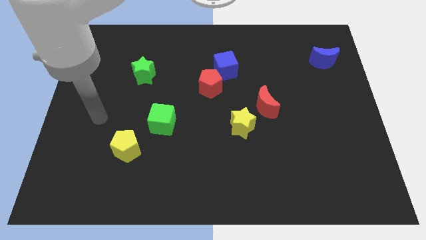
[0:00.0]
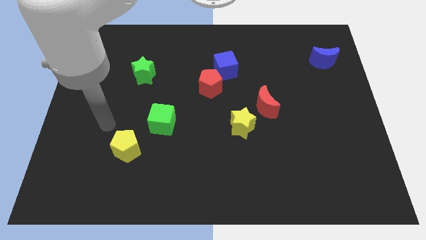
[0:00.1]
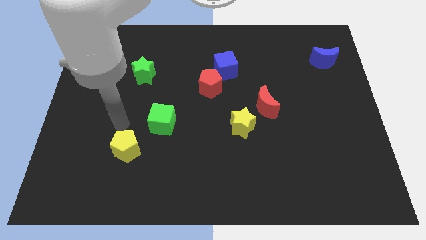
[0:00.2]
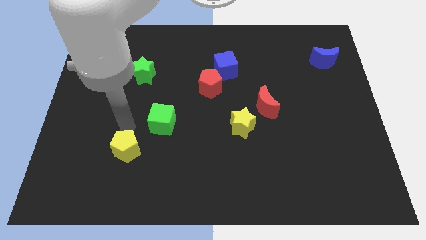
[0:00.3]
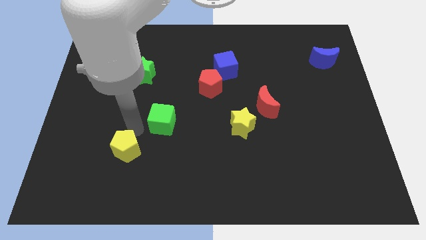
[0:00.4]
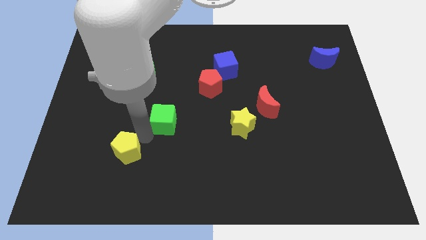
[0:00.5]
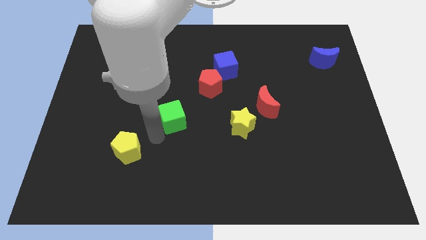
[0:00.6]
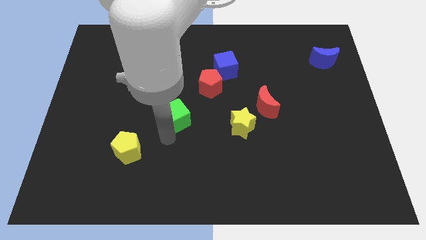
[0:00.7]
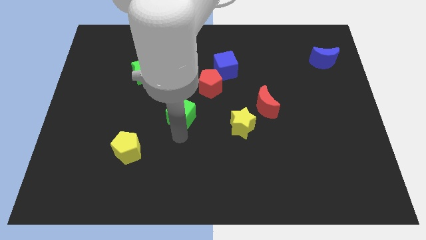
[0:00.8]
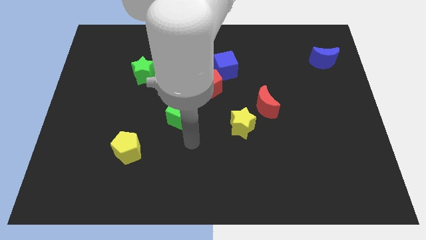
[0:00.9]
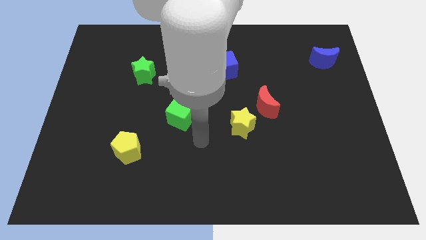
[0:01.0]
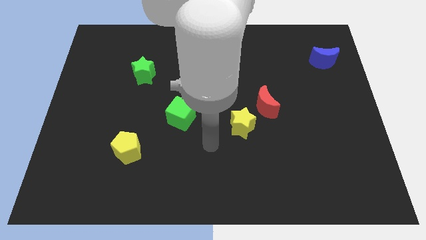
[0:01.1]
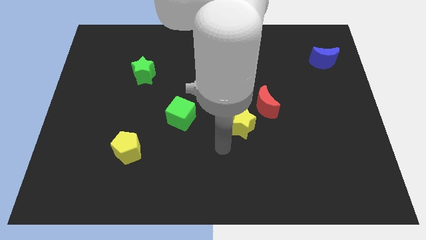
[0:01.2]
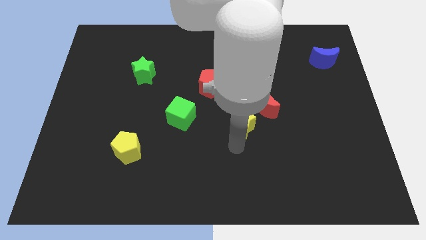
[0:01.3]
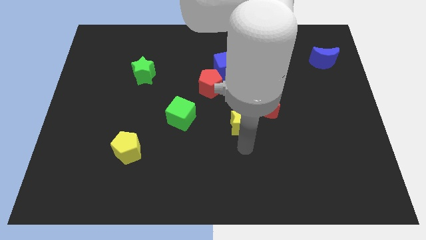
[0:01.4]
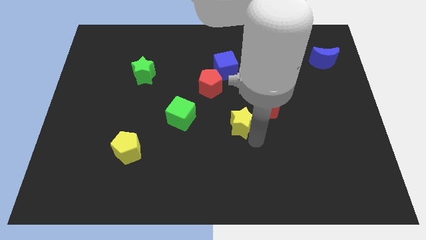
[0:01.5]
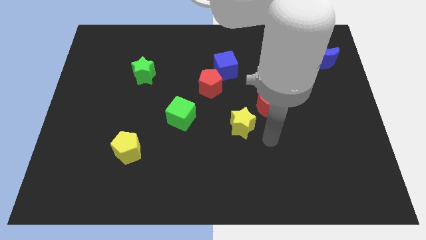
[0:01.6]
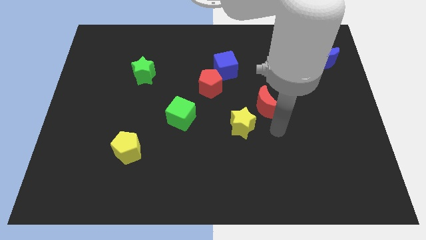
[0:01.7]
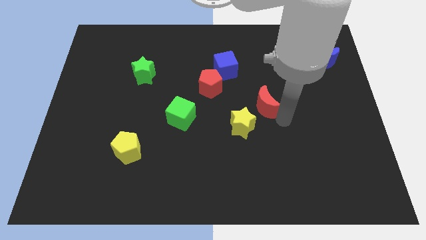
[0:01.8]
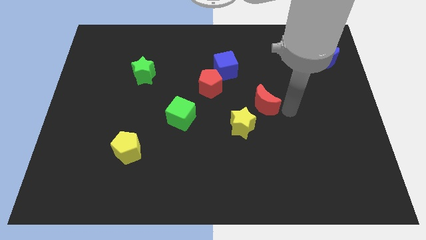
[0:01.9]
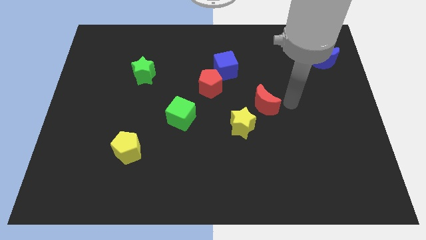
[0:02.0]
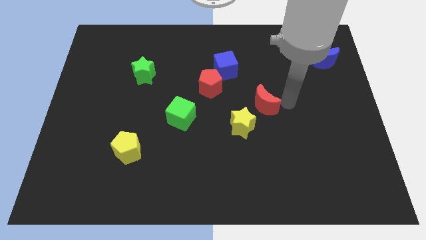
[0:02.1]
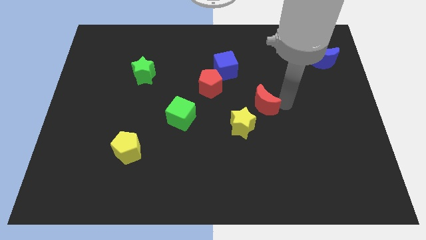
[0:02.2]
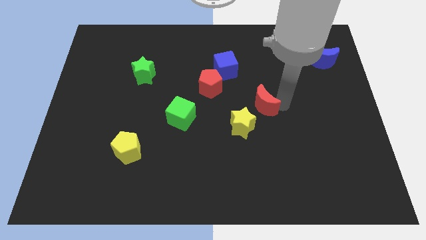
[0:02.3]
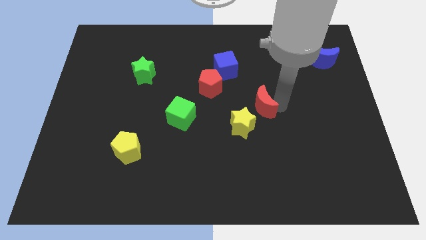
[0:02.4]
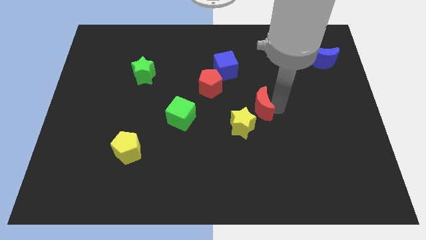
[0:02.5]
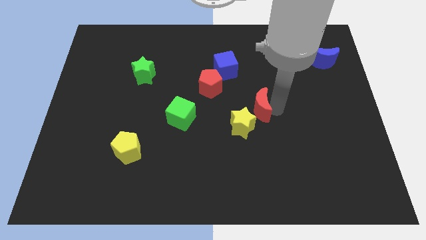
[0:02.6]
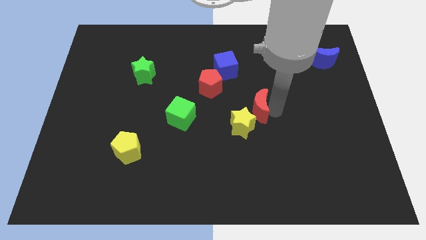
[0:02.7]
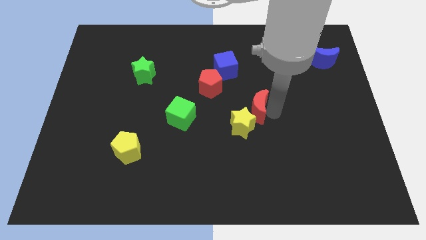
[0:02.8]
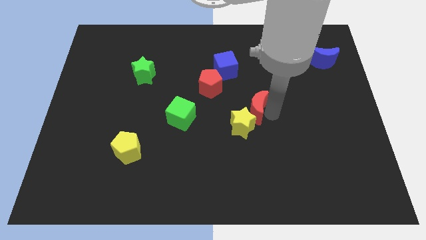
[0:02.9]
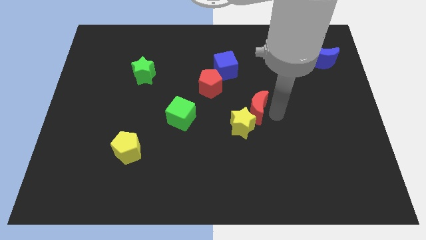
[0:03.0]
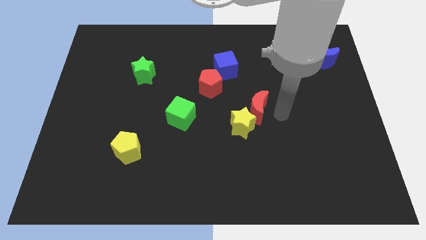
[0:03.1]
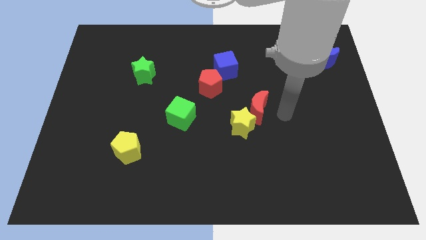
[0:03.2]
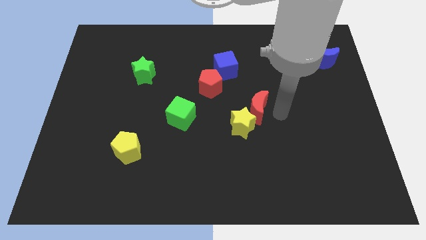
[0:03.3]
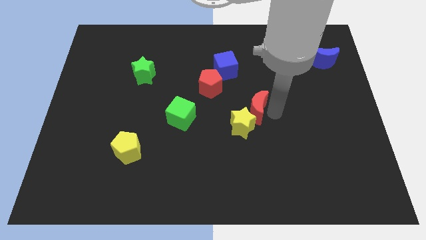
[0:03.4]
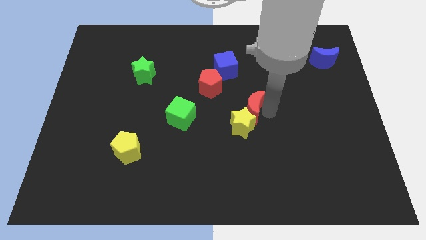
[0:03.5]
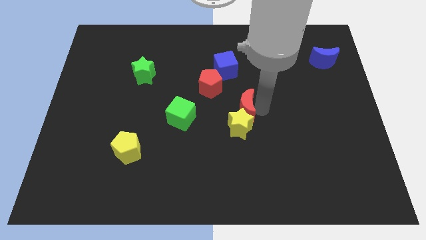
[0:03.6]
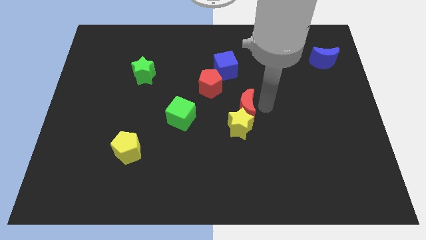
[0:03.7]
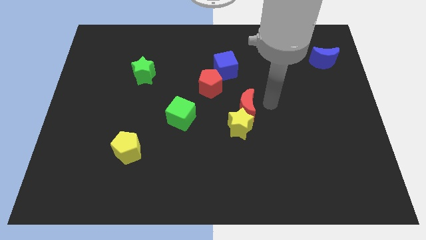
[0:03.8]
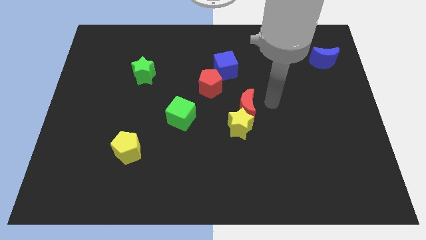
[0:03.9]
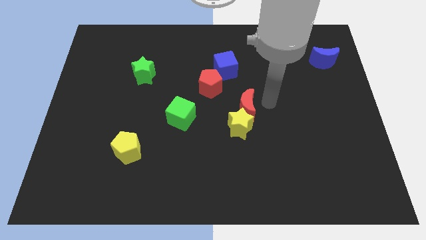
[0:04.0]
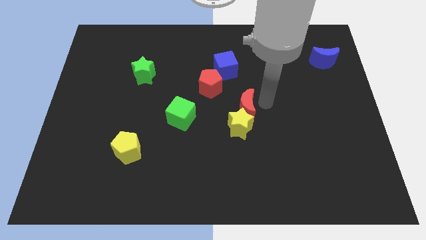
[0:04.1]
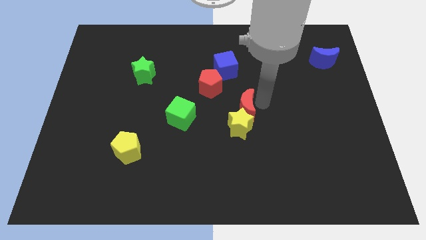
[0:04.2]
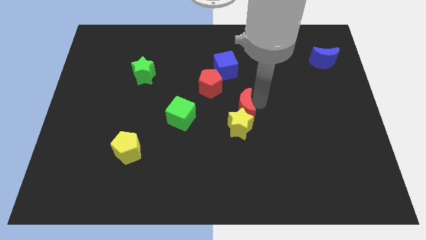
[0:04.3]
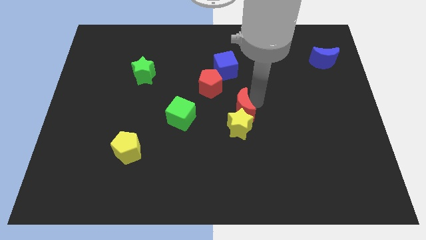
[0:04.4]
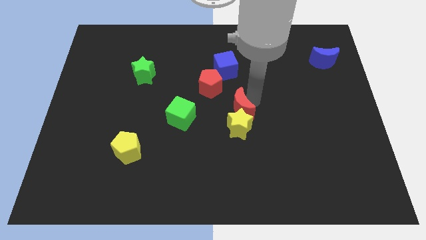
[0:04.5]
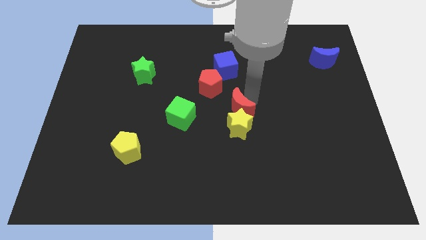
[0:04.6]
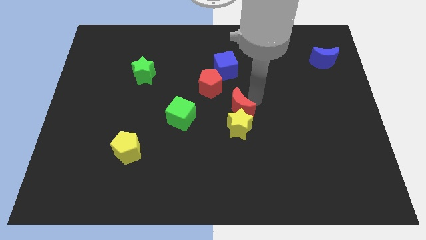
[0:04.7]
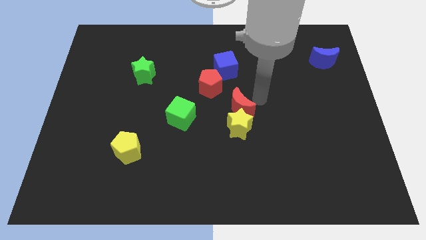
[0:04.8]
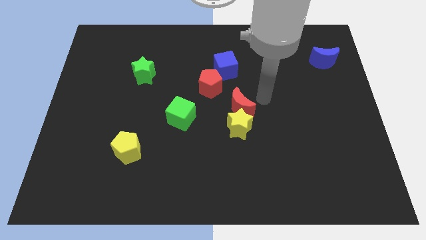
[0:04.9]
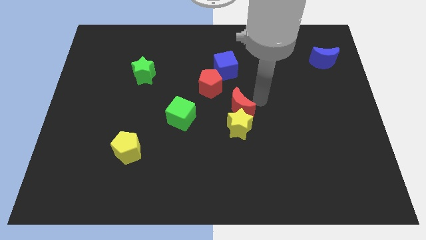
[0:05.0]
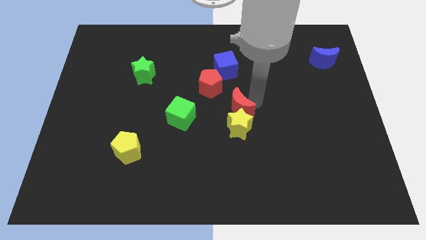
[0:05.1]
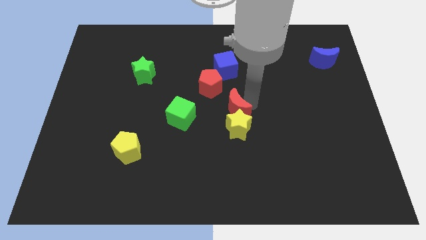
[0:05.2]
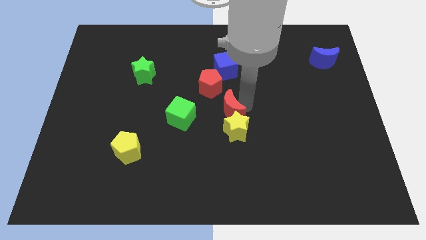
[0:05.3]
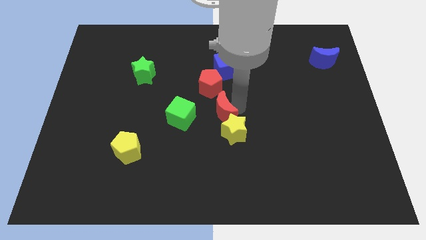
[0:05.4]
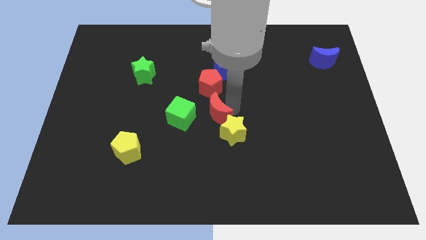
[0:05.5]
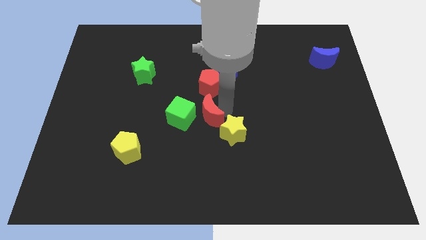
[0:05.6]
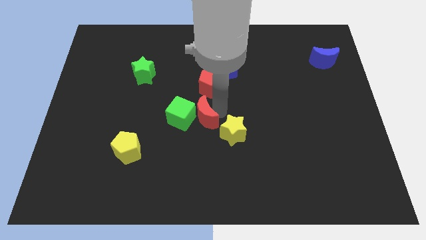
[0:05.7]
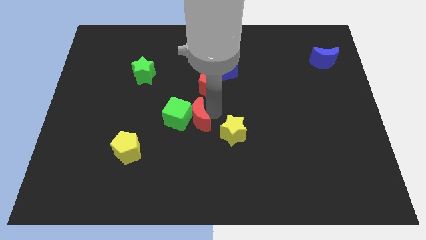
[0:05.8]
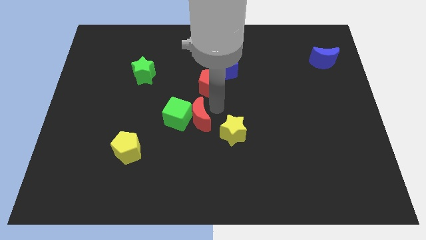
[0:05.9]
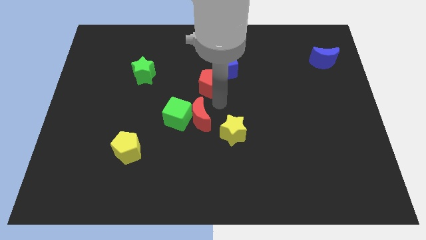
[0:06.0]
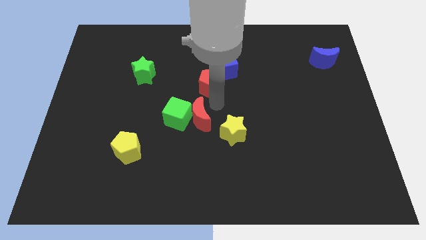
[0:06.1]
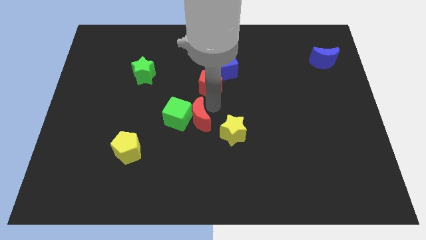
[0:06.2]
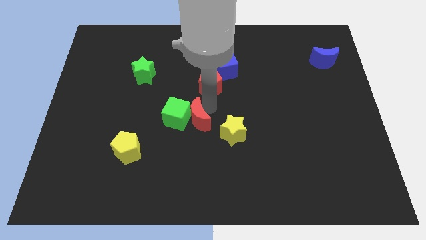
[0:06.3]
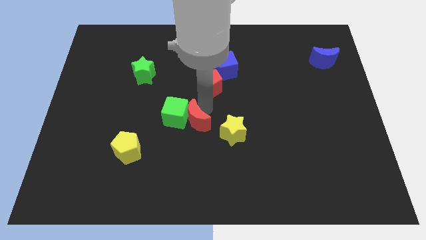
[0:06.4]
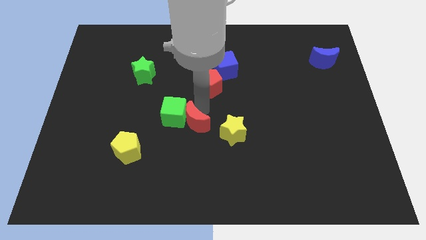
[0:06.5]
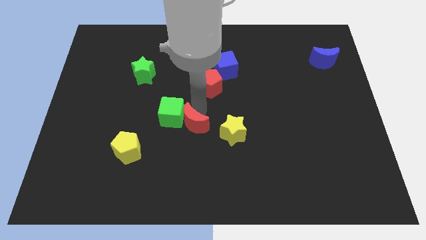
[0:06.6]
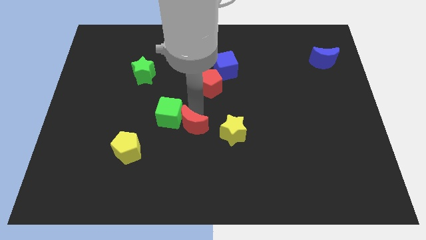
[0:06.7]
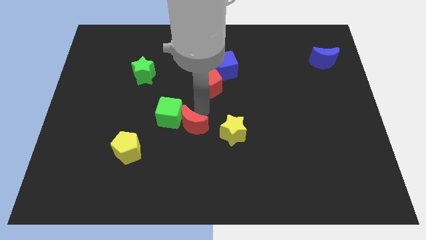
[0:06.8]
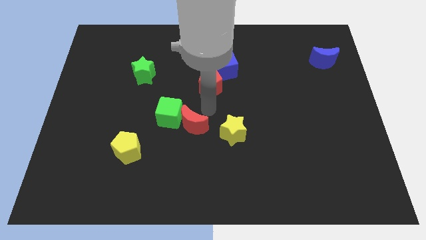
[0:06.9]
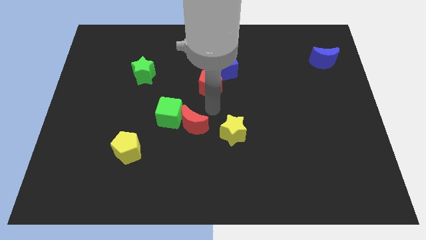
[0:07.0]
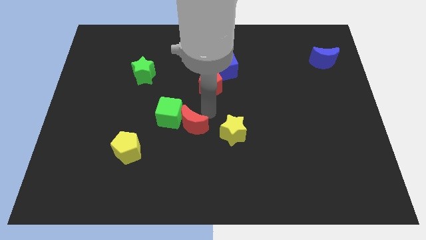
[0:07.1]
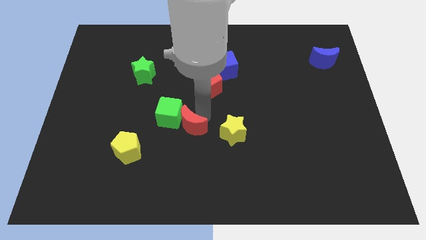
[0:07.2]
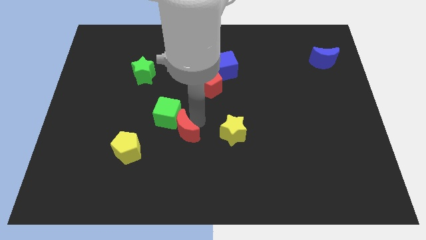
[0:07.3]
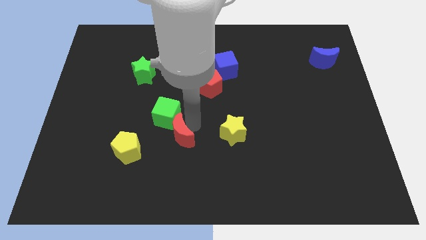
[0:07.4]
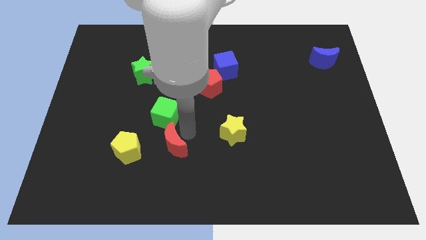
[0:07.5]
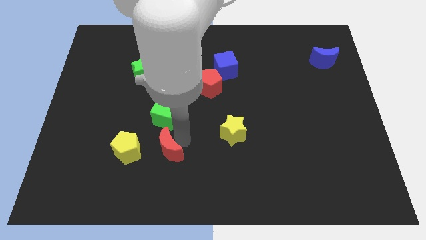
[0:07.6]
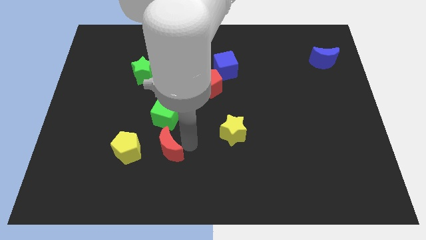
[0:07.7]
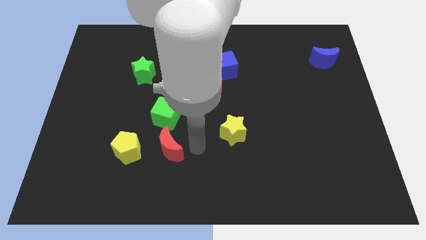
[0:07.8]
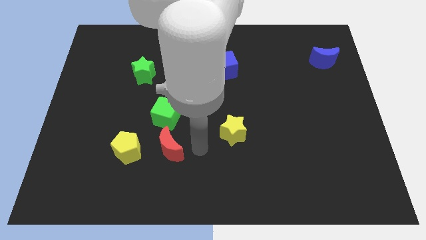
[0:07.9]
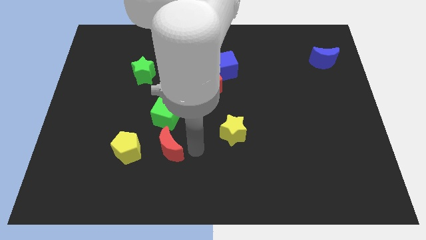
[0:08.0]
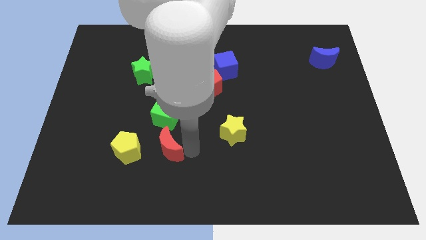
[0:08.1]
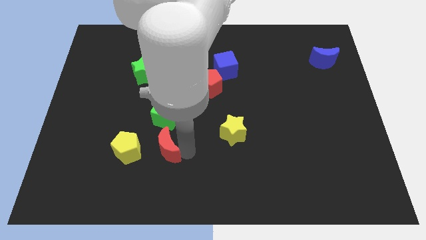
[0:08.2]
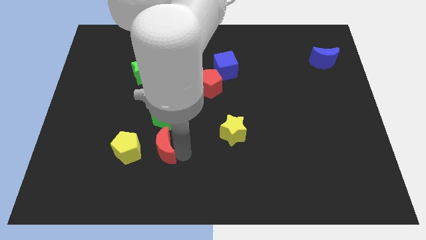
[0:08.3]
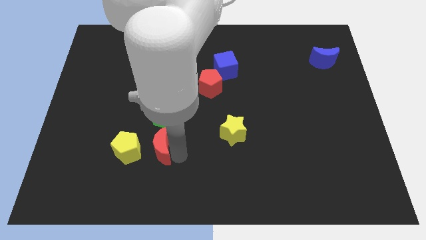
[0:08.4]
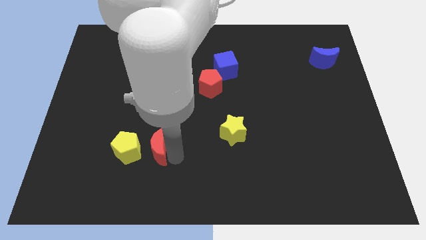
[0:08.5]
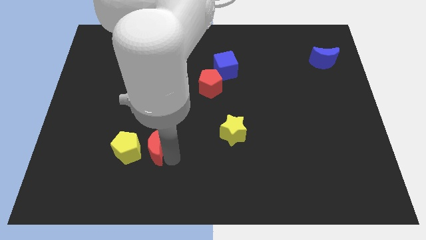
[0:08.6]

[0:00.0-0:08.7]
put the red moon to the yellow pentagon
